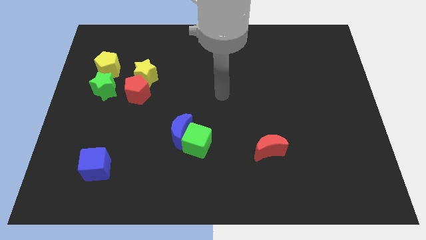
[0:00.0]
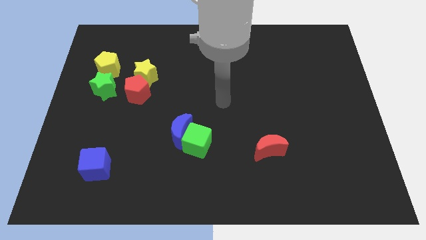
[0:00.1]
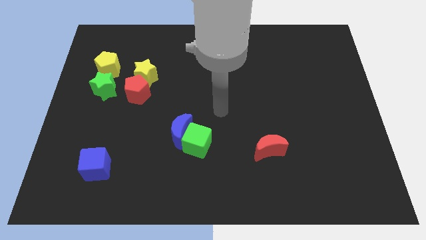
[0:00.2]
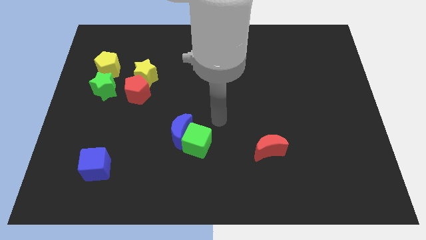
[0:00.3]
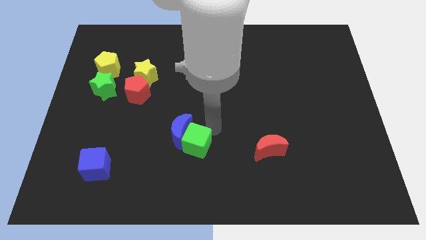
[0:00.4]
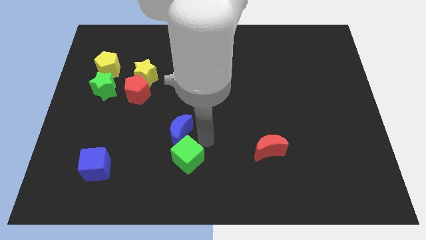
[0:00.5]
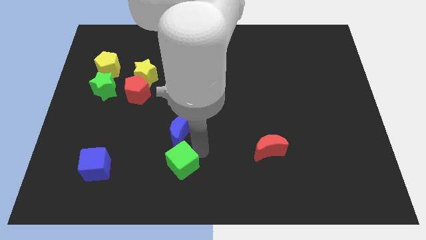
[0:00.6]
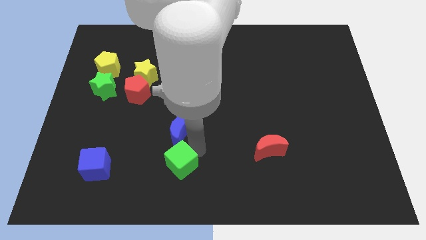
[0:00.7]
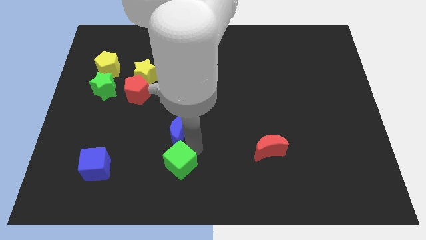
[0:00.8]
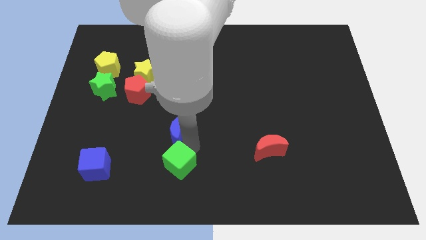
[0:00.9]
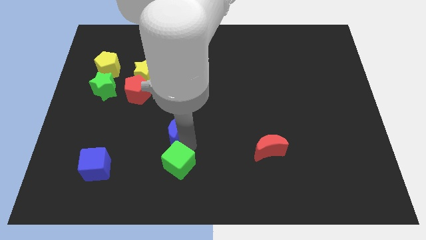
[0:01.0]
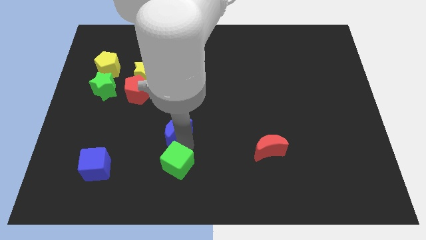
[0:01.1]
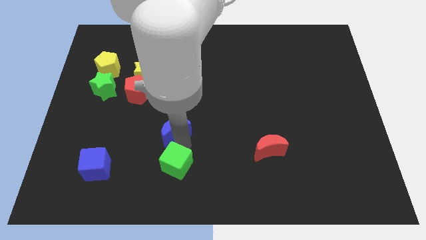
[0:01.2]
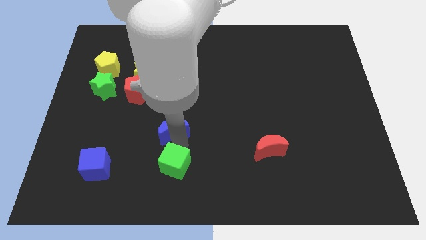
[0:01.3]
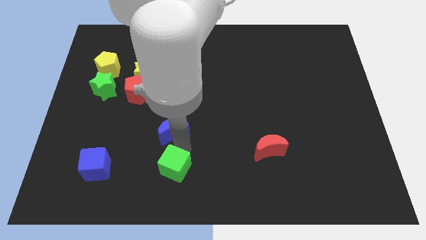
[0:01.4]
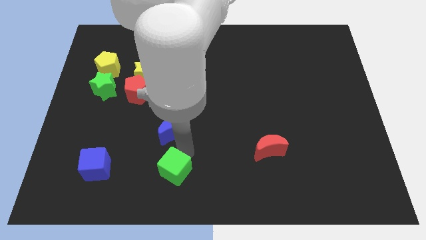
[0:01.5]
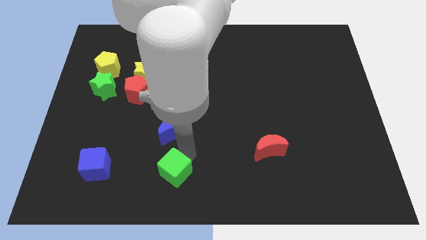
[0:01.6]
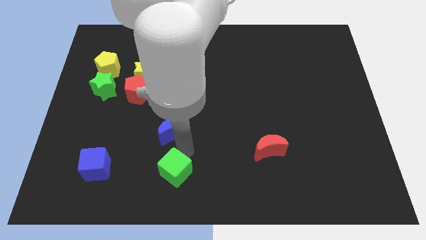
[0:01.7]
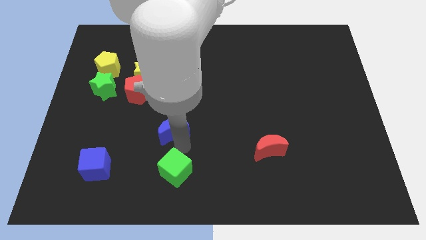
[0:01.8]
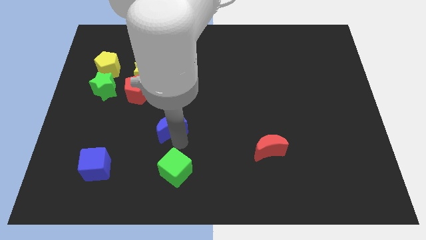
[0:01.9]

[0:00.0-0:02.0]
move the blue moon away from the green cube

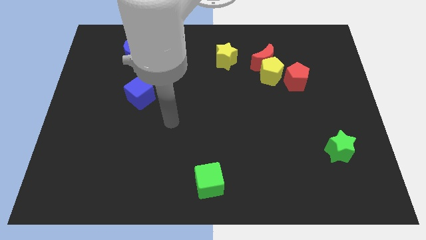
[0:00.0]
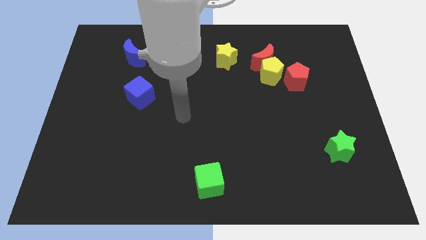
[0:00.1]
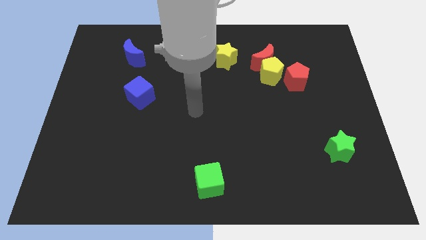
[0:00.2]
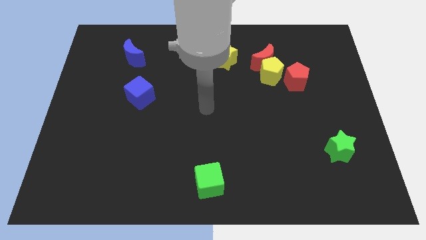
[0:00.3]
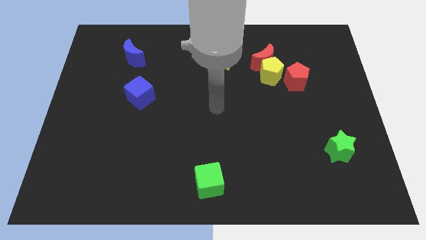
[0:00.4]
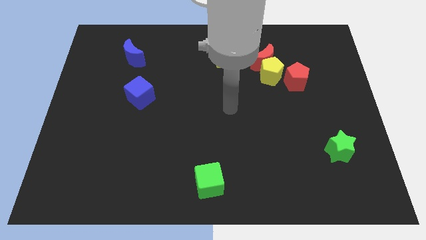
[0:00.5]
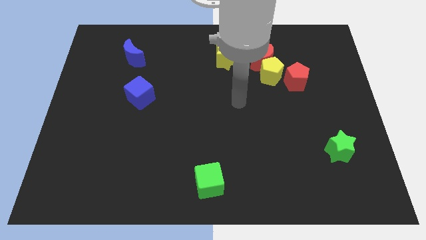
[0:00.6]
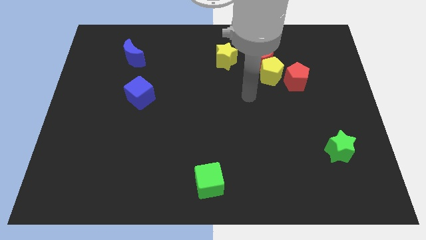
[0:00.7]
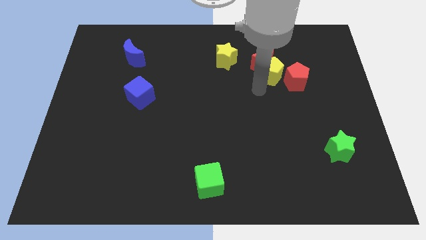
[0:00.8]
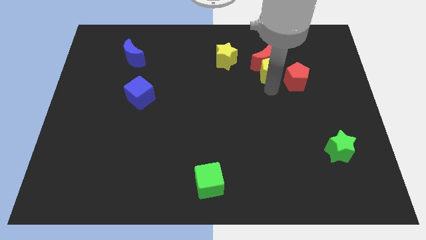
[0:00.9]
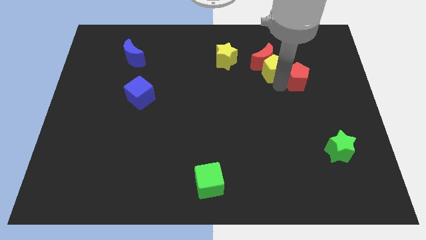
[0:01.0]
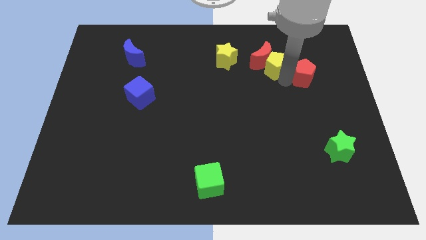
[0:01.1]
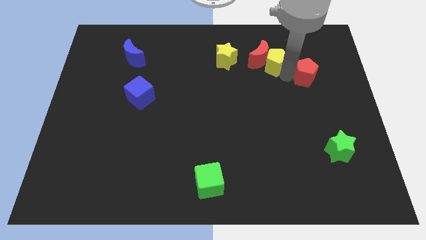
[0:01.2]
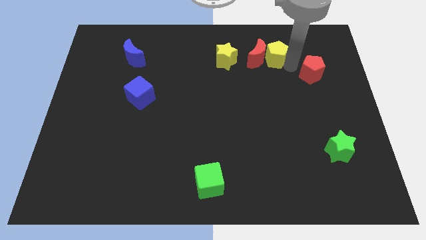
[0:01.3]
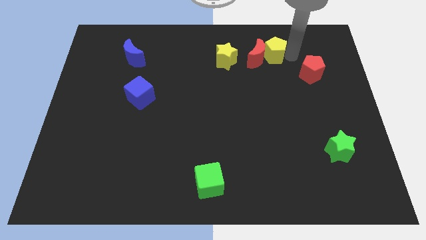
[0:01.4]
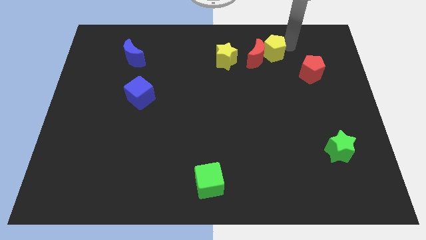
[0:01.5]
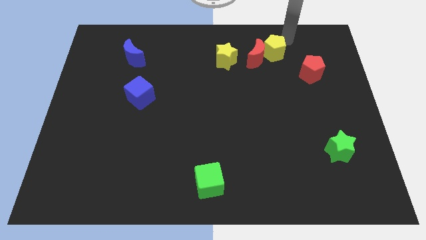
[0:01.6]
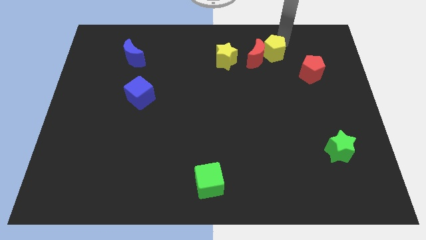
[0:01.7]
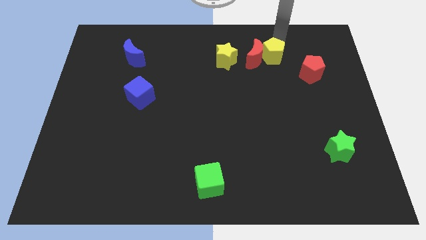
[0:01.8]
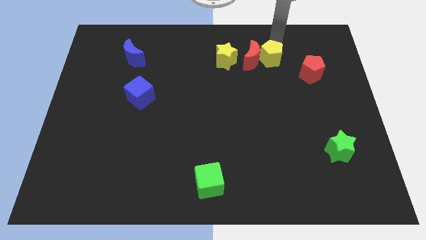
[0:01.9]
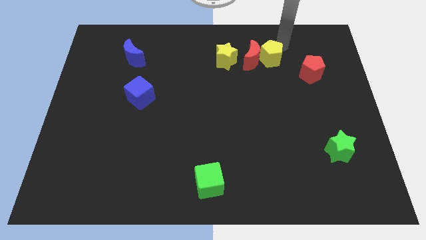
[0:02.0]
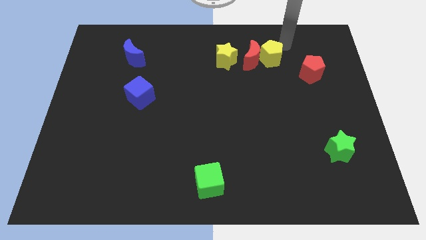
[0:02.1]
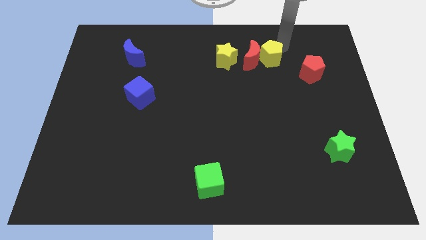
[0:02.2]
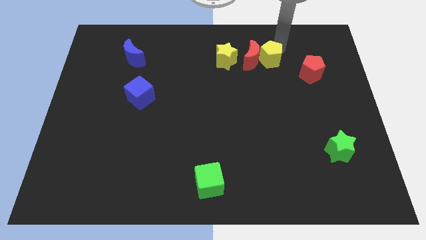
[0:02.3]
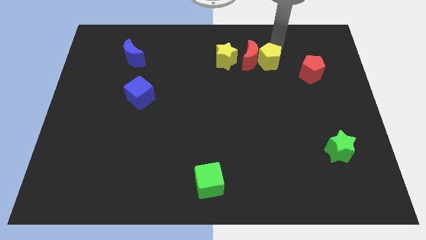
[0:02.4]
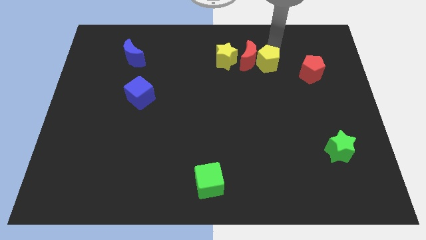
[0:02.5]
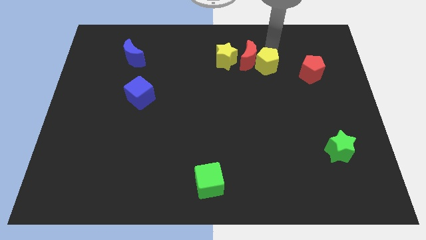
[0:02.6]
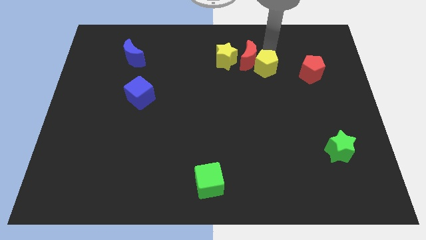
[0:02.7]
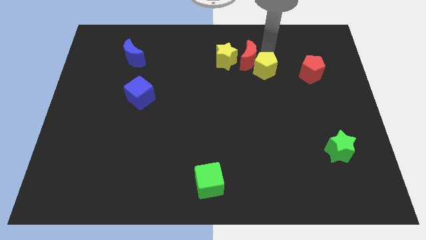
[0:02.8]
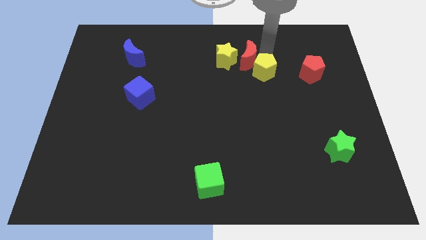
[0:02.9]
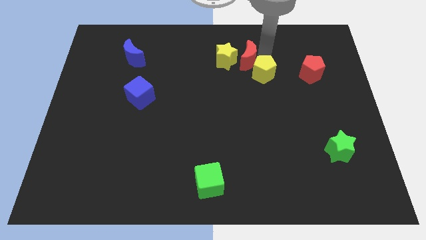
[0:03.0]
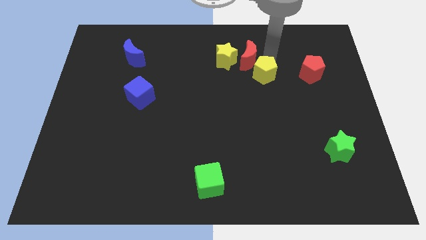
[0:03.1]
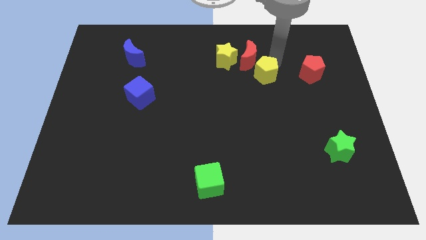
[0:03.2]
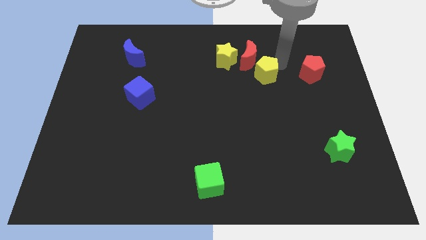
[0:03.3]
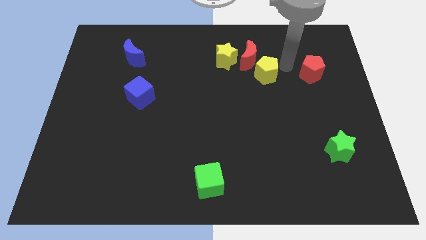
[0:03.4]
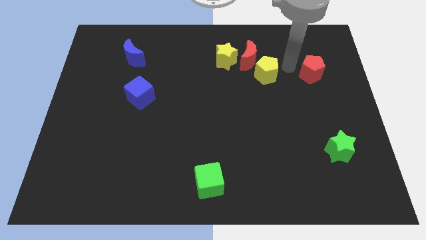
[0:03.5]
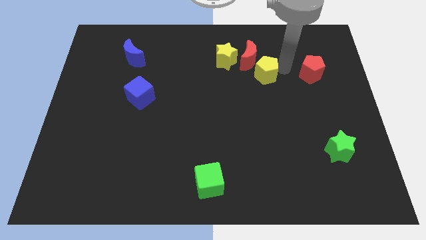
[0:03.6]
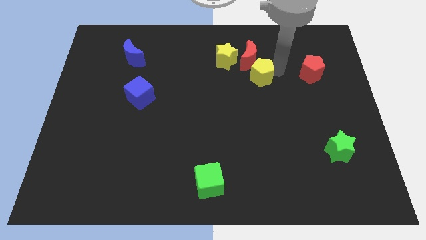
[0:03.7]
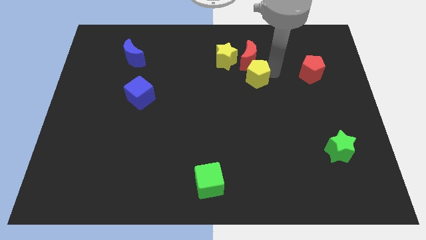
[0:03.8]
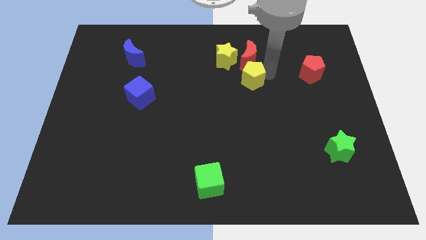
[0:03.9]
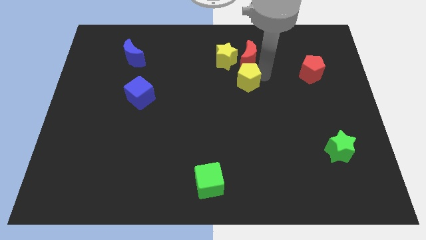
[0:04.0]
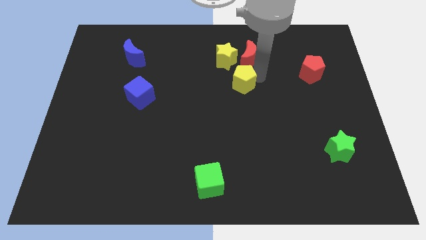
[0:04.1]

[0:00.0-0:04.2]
separate the yellow pentagon from the red moon and red pentagon

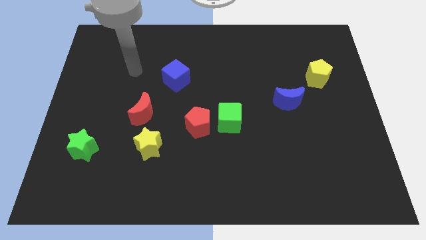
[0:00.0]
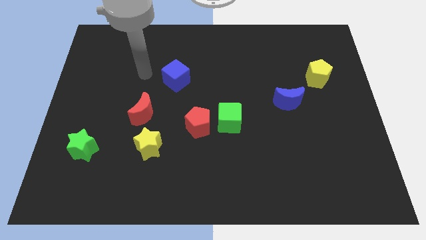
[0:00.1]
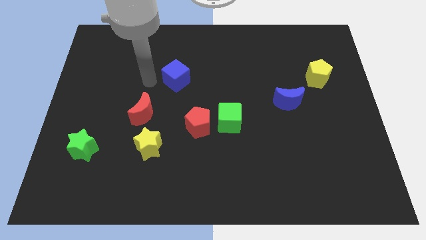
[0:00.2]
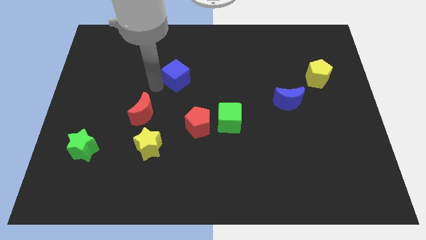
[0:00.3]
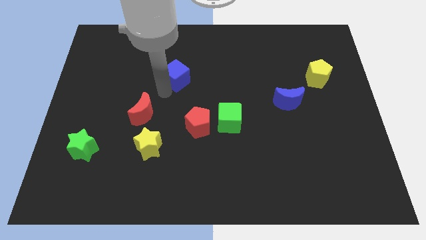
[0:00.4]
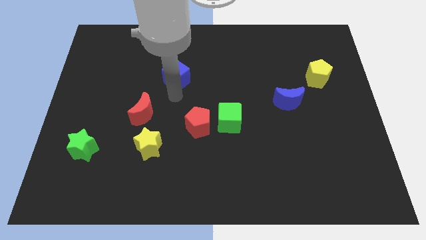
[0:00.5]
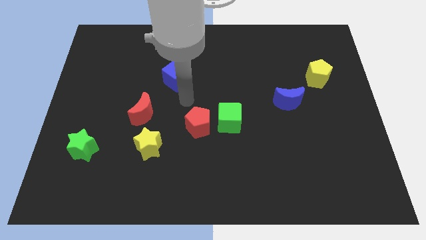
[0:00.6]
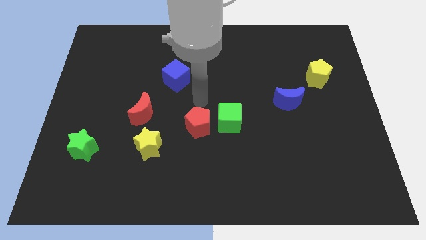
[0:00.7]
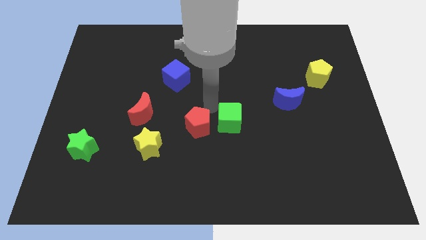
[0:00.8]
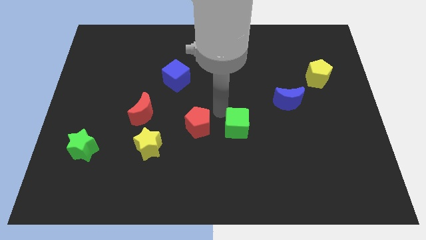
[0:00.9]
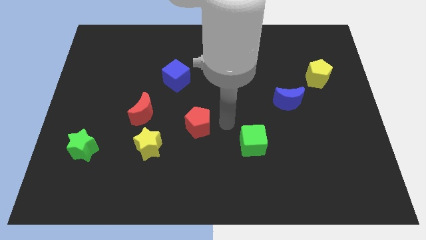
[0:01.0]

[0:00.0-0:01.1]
move the red pentagon away from the green cube

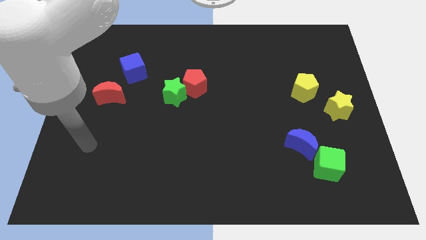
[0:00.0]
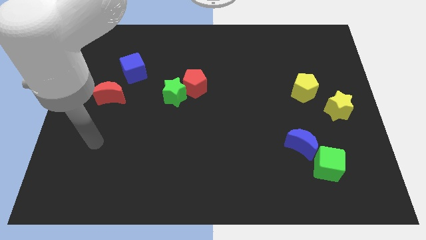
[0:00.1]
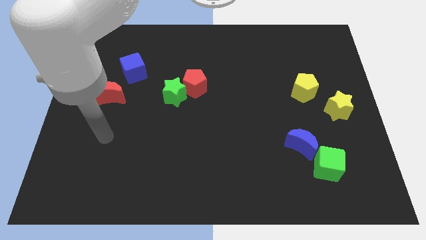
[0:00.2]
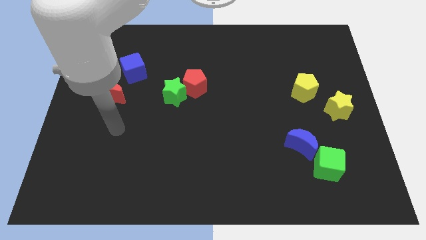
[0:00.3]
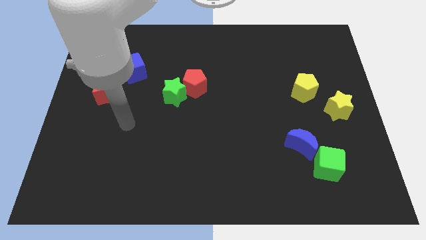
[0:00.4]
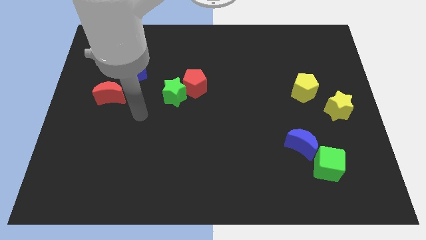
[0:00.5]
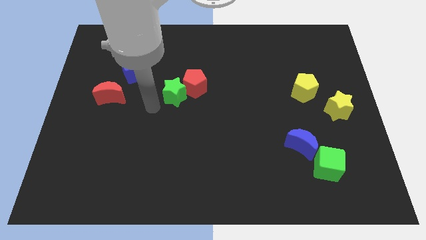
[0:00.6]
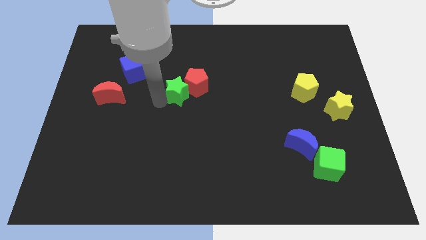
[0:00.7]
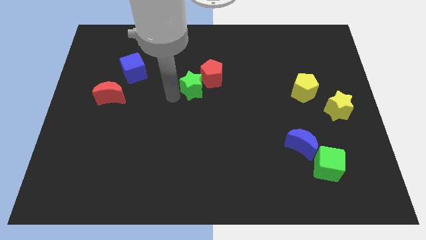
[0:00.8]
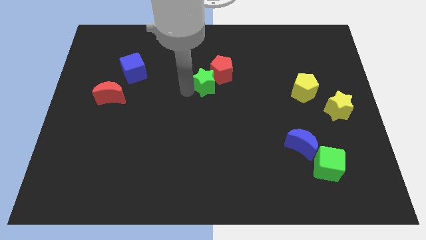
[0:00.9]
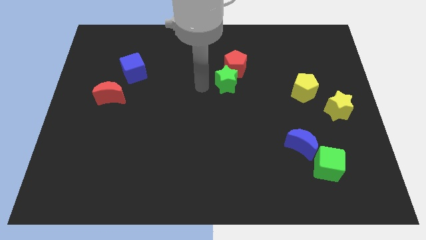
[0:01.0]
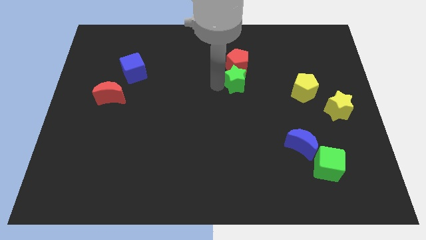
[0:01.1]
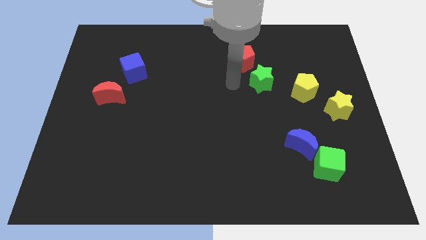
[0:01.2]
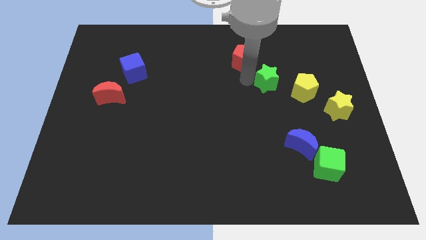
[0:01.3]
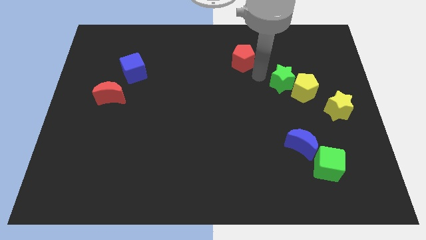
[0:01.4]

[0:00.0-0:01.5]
move the red pentagon away from the green star

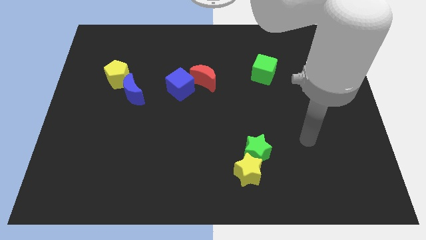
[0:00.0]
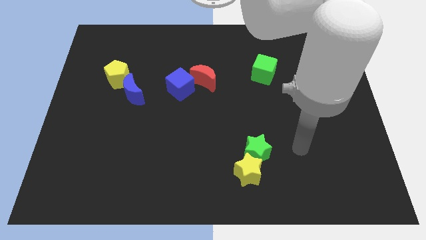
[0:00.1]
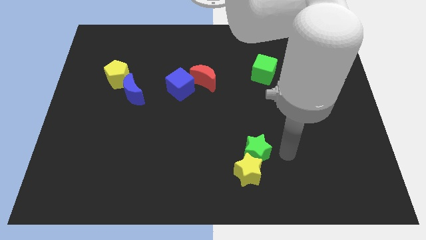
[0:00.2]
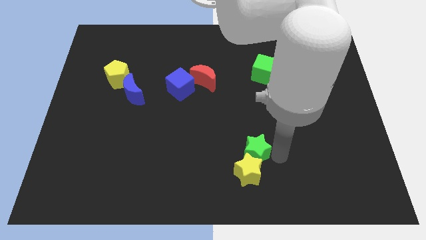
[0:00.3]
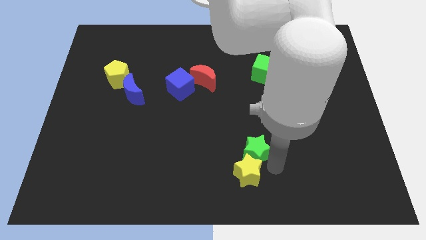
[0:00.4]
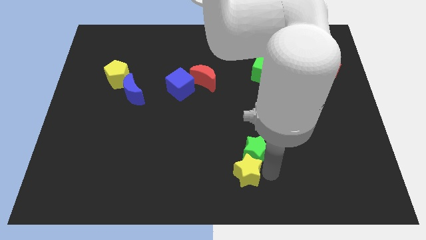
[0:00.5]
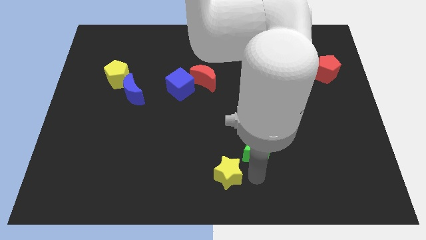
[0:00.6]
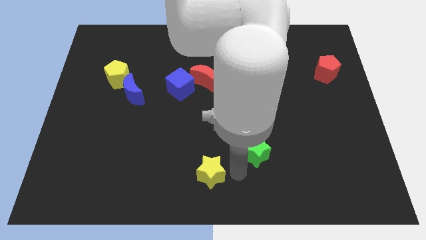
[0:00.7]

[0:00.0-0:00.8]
separate the green star from the yellow star
